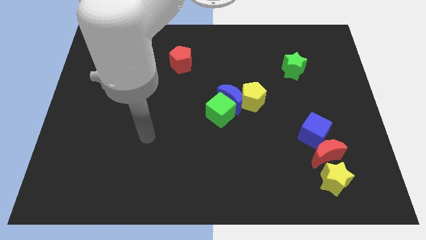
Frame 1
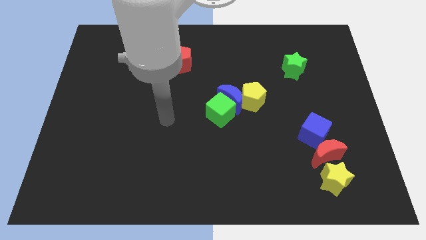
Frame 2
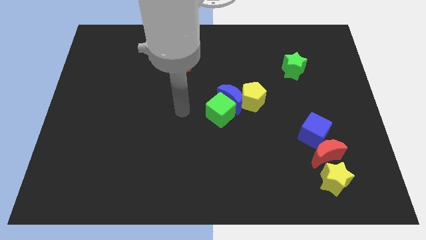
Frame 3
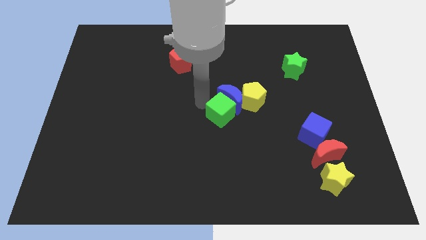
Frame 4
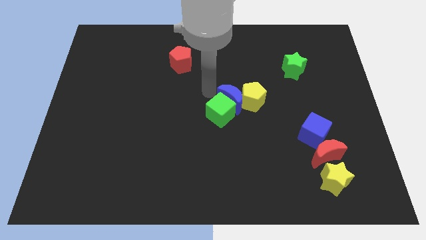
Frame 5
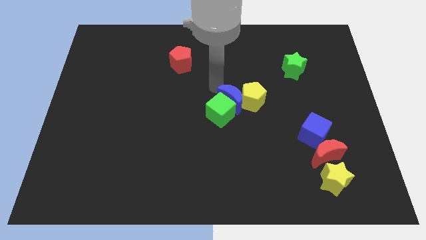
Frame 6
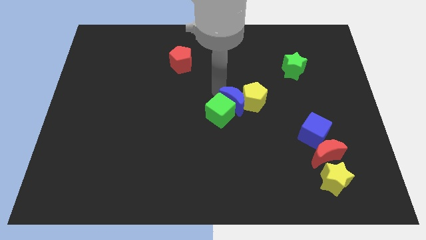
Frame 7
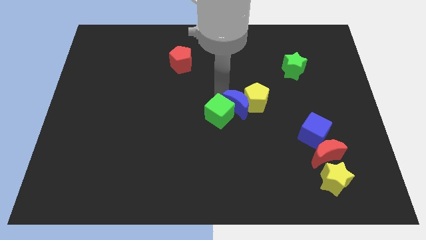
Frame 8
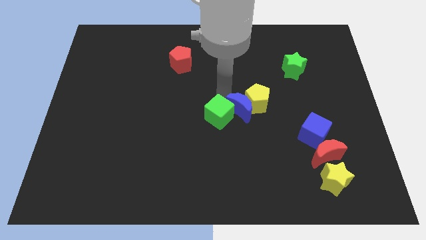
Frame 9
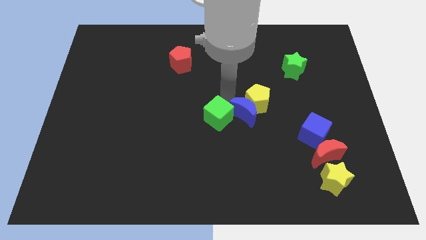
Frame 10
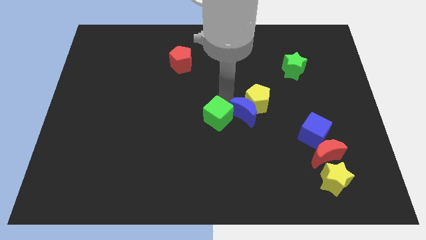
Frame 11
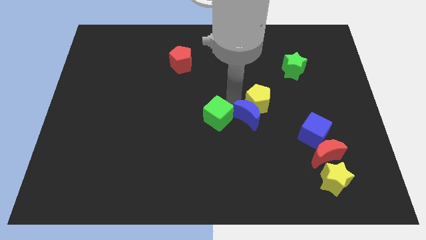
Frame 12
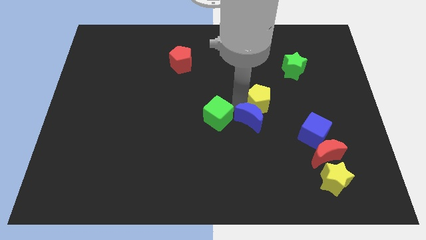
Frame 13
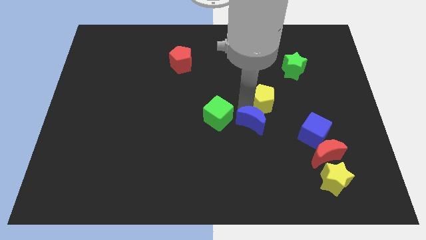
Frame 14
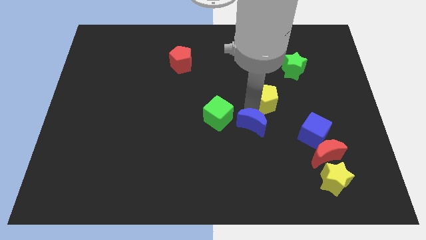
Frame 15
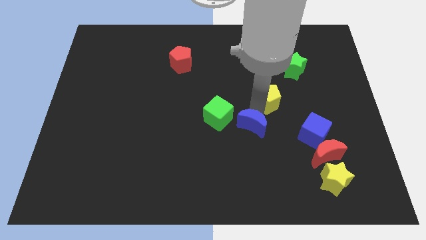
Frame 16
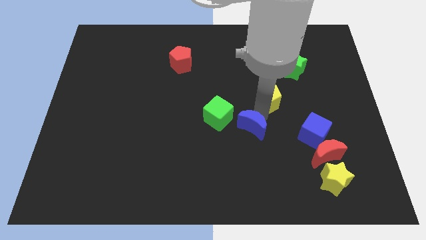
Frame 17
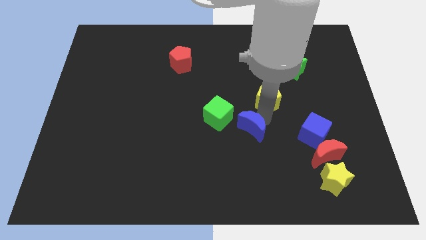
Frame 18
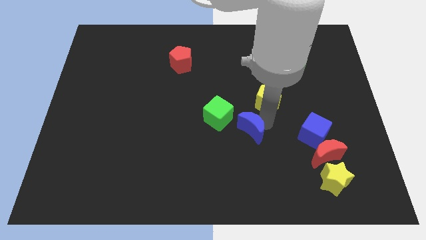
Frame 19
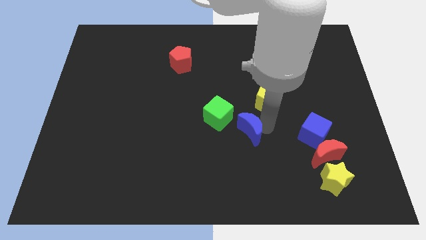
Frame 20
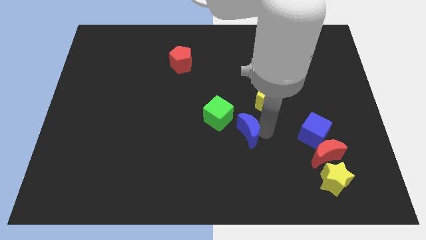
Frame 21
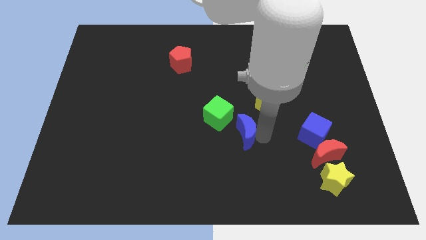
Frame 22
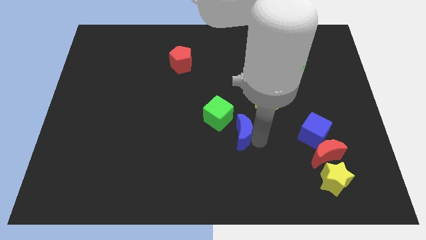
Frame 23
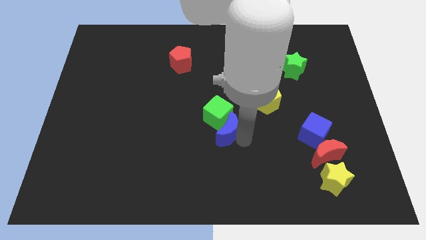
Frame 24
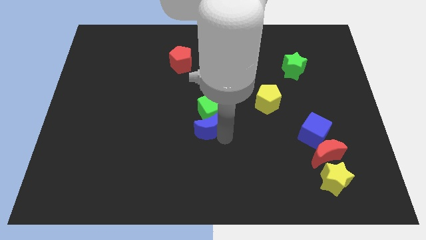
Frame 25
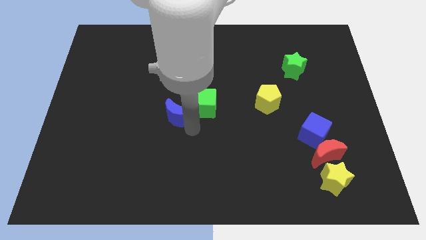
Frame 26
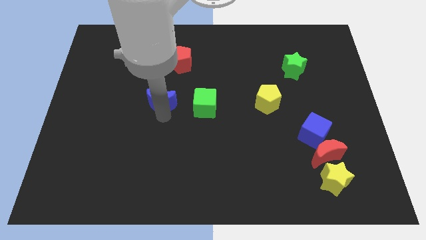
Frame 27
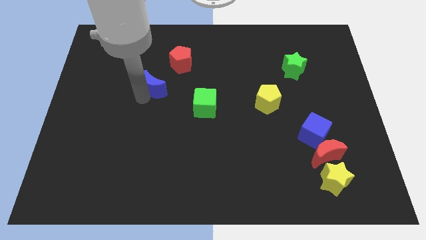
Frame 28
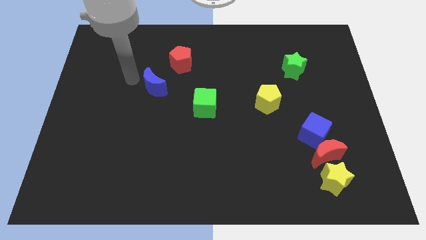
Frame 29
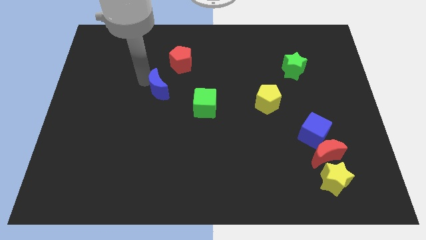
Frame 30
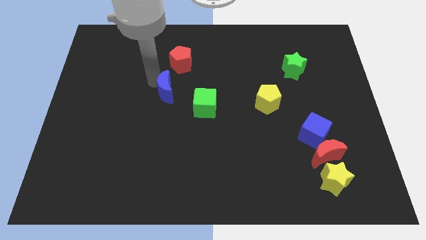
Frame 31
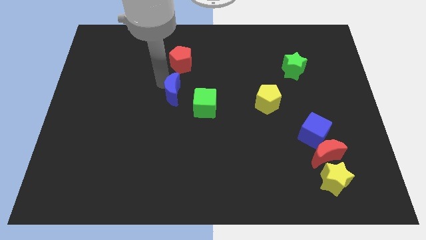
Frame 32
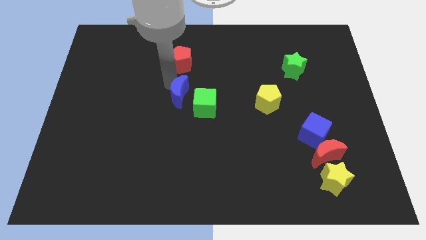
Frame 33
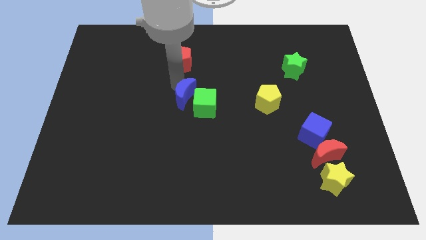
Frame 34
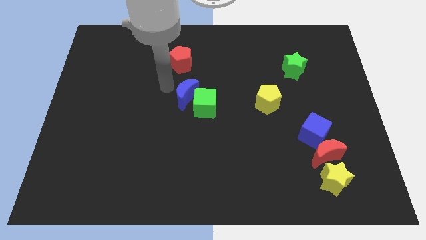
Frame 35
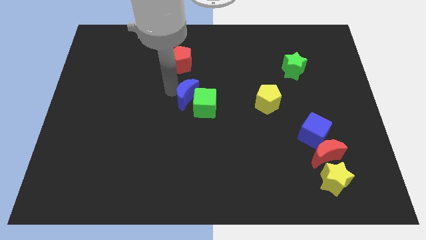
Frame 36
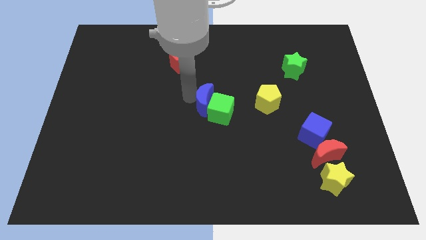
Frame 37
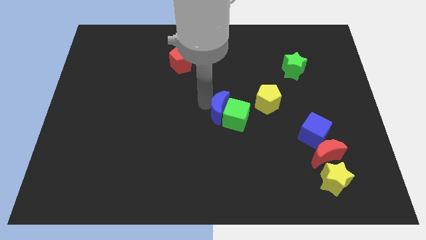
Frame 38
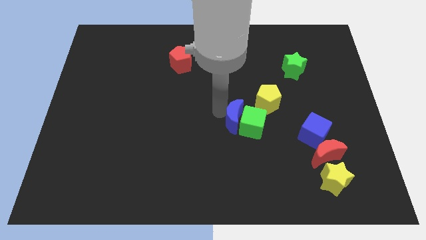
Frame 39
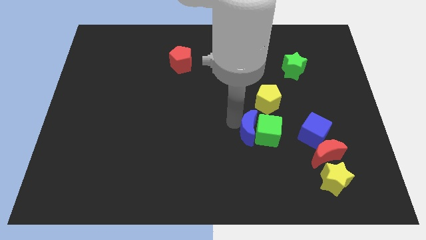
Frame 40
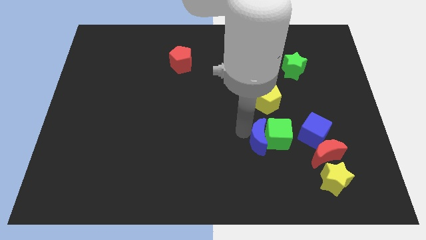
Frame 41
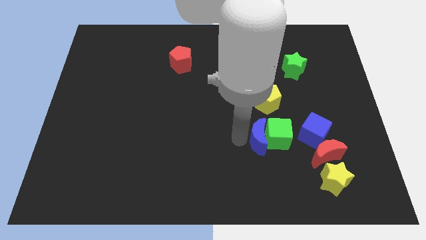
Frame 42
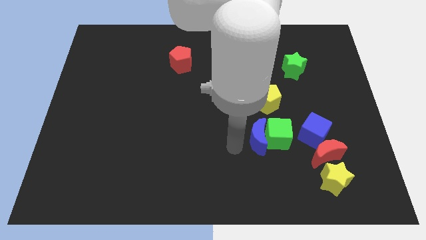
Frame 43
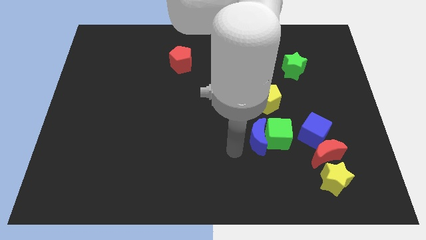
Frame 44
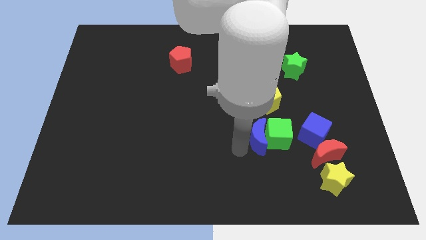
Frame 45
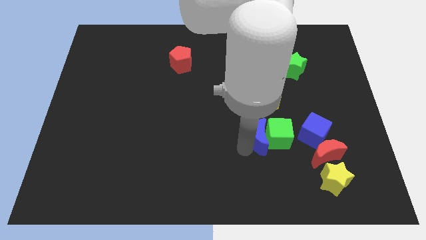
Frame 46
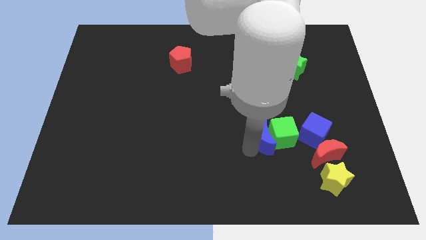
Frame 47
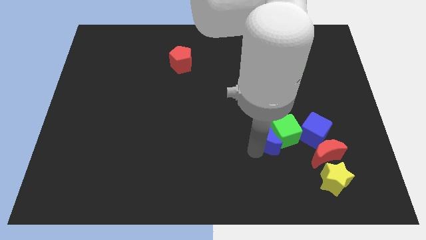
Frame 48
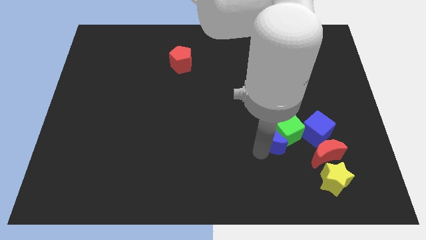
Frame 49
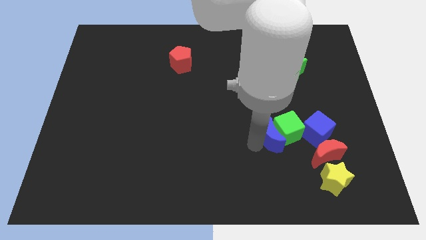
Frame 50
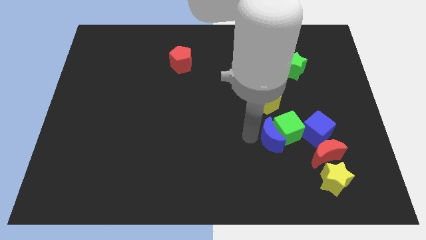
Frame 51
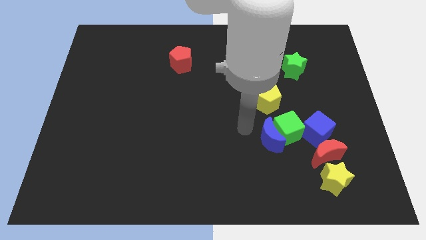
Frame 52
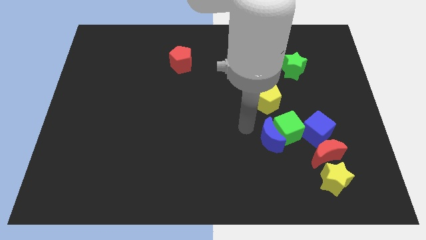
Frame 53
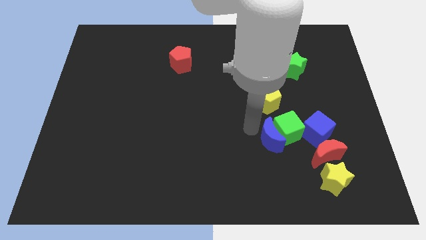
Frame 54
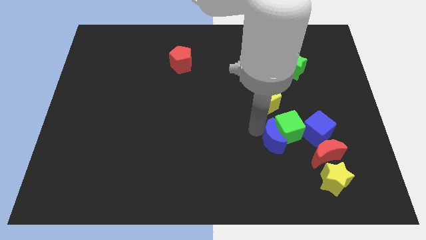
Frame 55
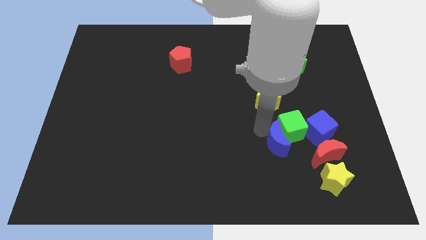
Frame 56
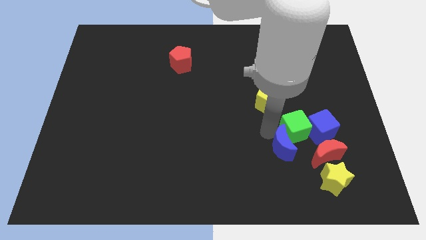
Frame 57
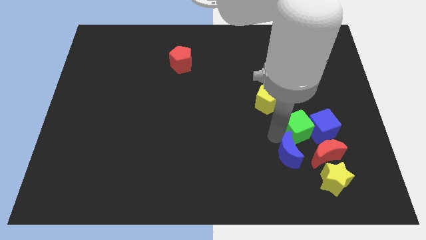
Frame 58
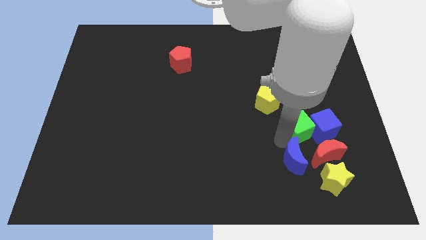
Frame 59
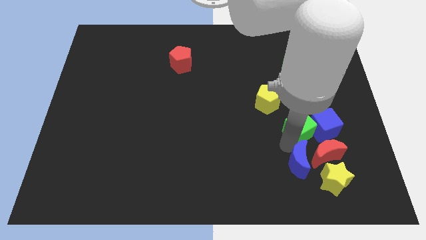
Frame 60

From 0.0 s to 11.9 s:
put the blue moon next to the red moon

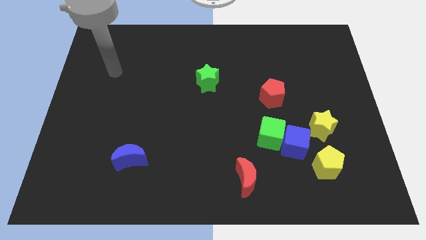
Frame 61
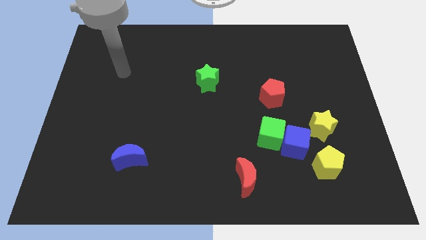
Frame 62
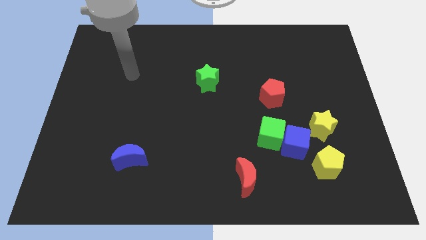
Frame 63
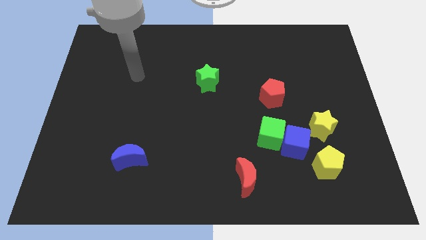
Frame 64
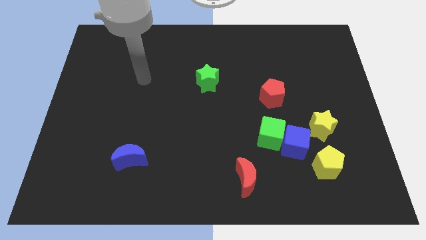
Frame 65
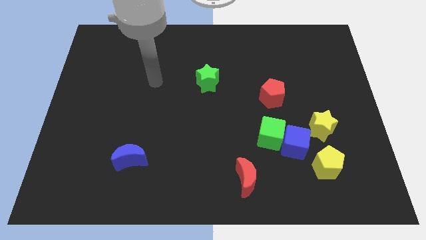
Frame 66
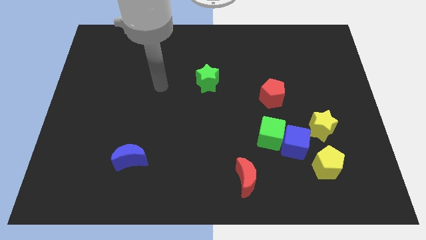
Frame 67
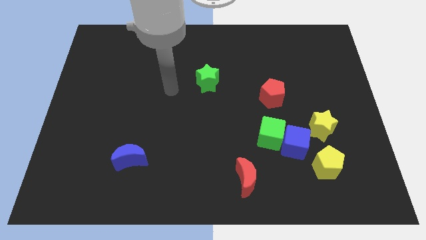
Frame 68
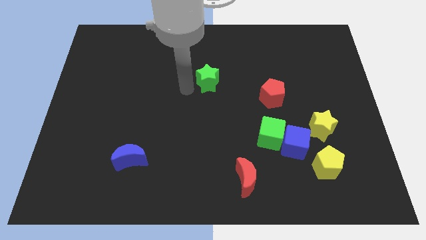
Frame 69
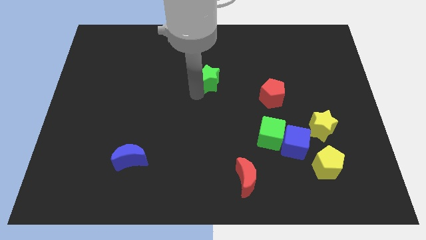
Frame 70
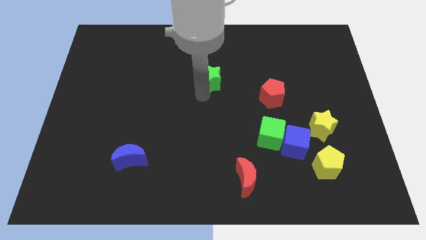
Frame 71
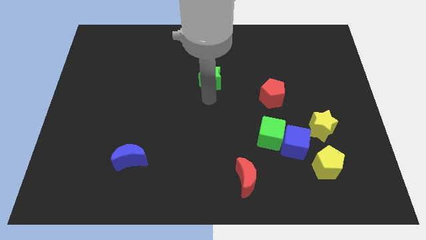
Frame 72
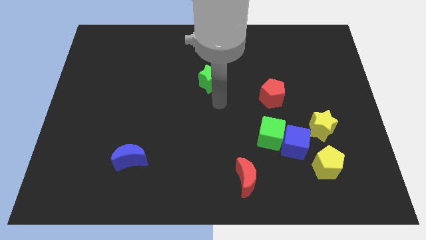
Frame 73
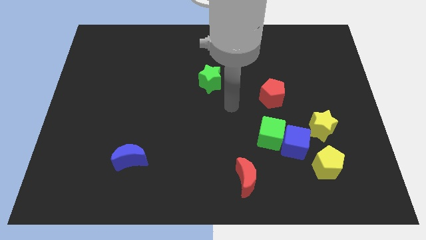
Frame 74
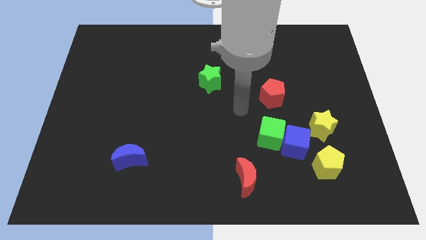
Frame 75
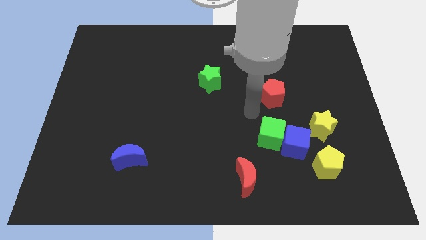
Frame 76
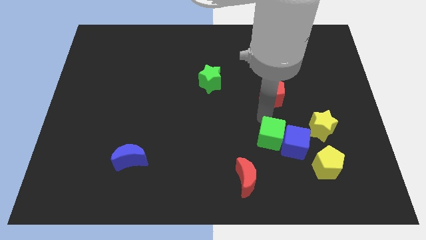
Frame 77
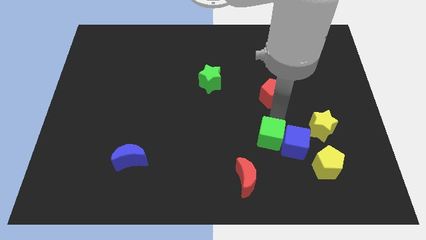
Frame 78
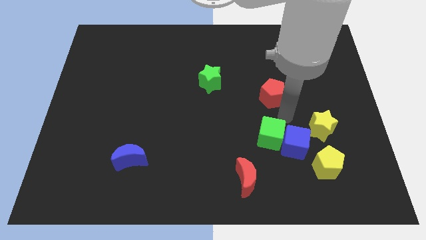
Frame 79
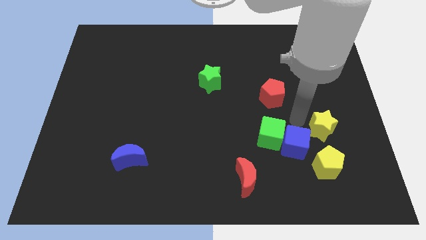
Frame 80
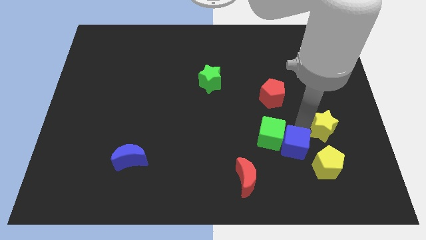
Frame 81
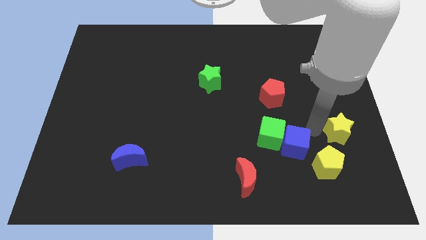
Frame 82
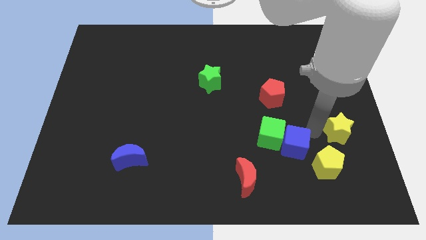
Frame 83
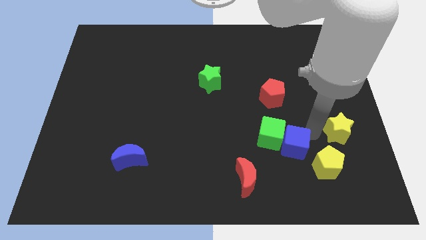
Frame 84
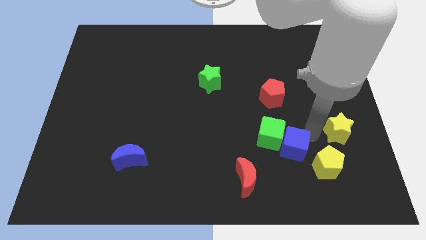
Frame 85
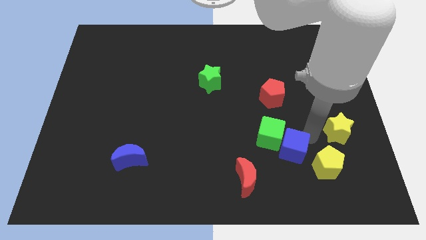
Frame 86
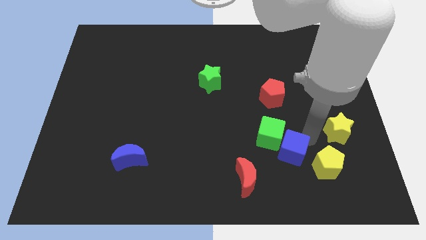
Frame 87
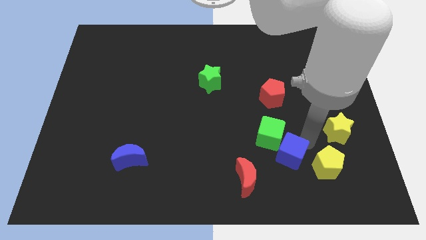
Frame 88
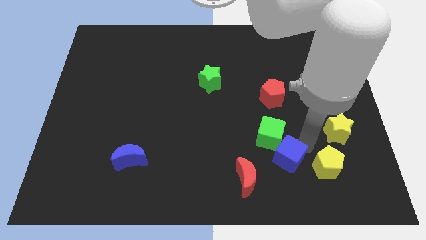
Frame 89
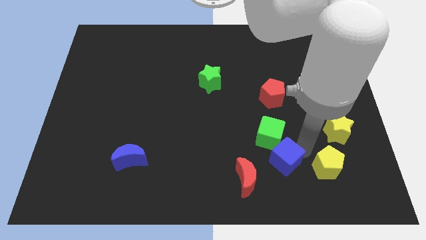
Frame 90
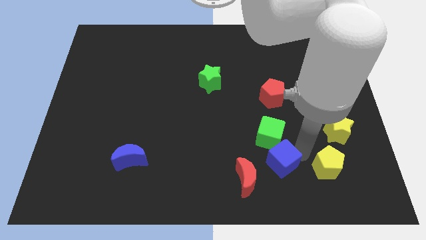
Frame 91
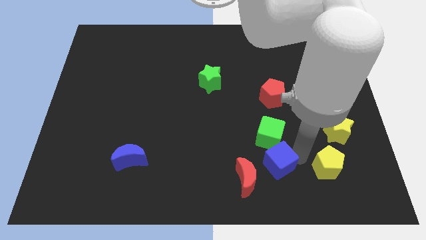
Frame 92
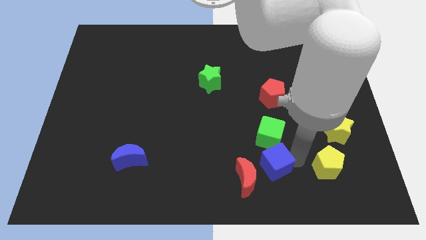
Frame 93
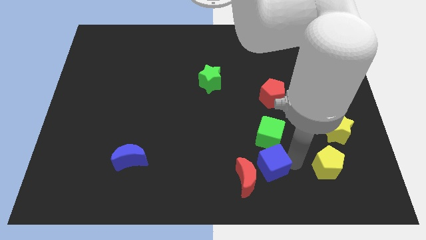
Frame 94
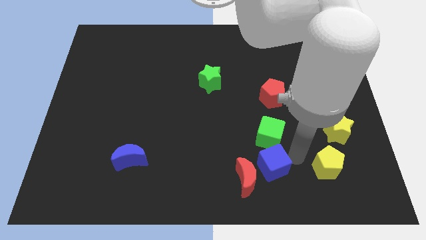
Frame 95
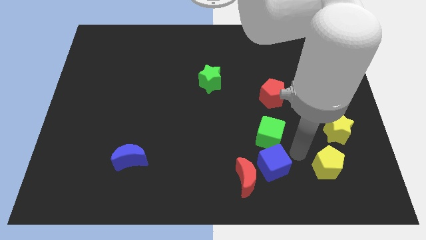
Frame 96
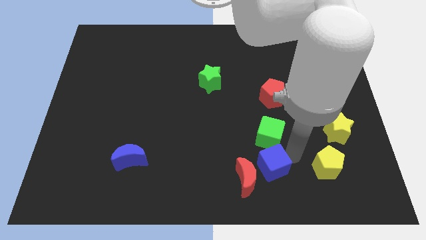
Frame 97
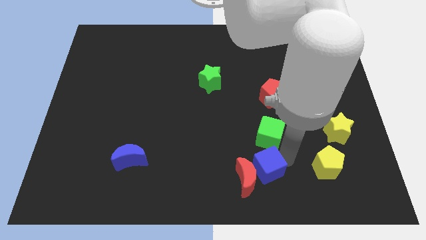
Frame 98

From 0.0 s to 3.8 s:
move the blue cube close to the red moon
